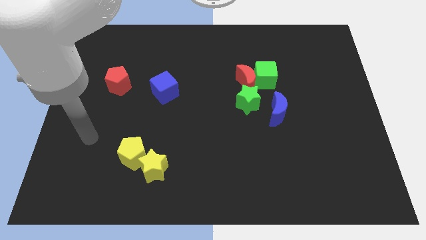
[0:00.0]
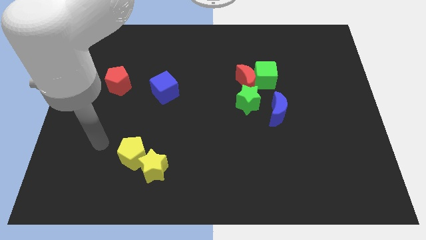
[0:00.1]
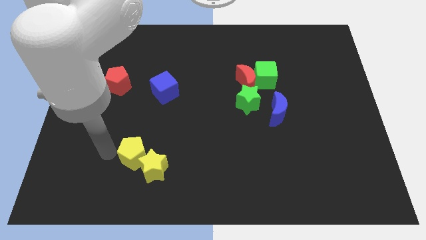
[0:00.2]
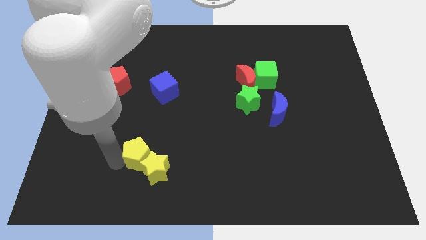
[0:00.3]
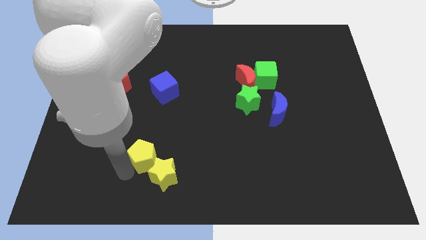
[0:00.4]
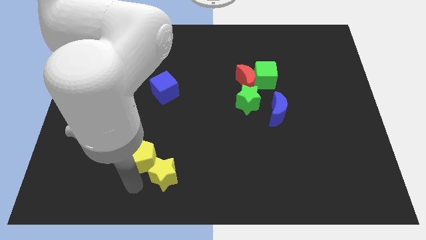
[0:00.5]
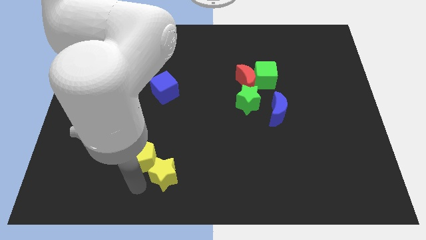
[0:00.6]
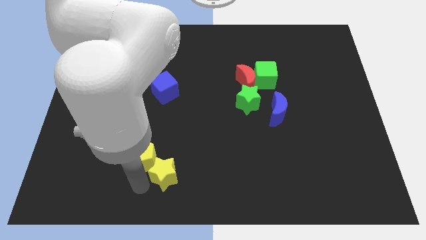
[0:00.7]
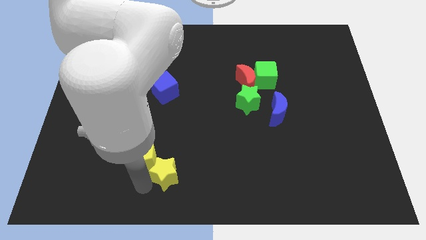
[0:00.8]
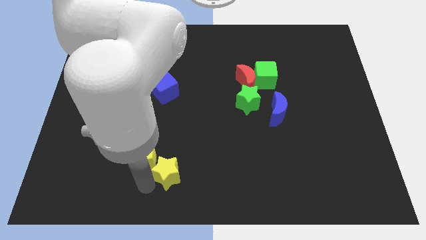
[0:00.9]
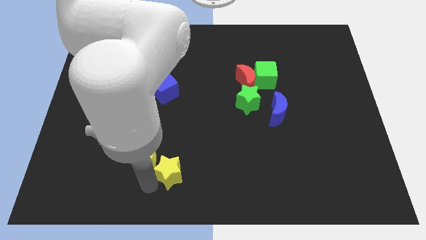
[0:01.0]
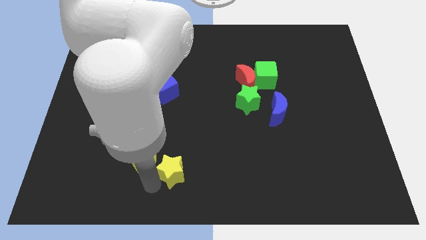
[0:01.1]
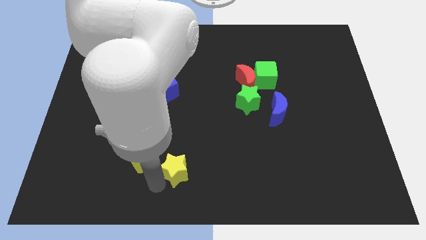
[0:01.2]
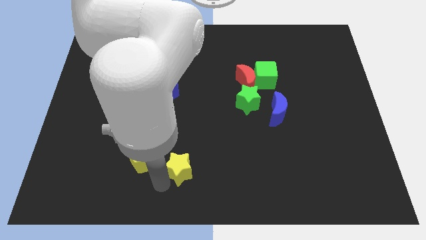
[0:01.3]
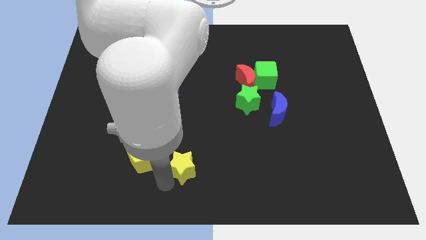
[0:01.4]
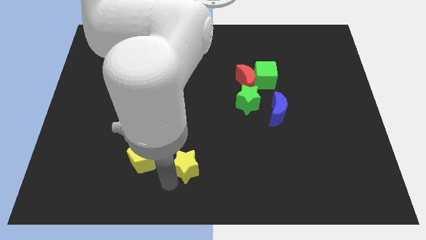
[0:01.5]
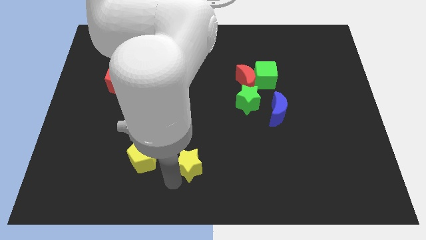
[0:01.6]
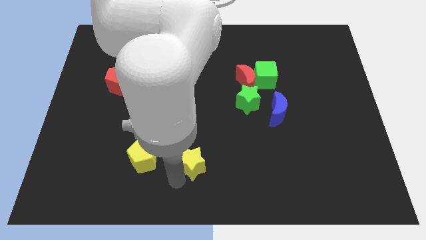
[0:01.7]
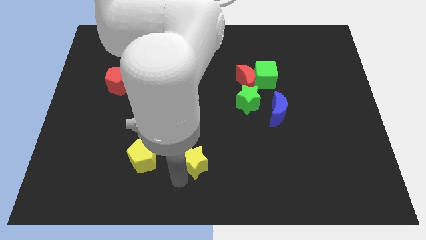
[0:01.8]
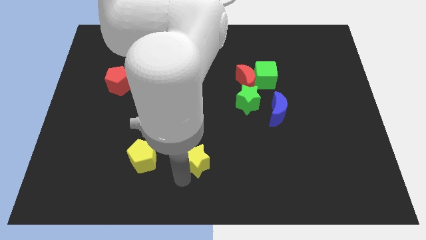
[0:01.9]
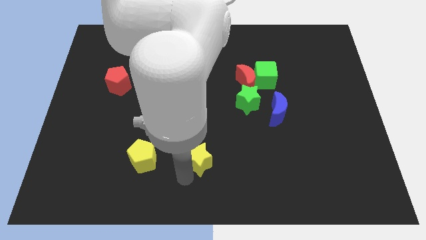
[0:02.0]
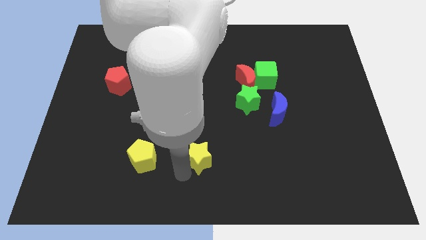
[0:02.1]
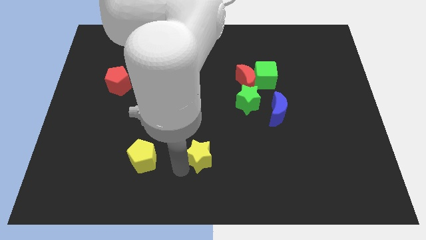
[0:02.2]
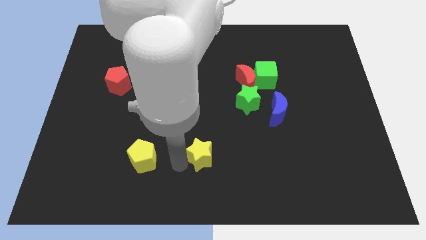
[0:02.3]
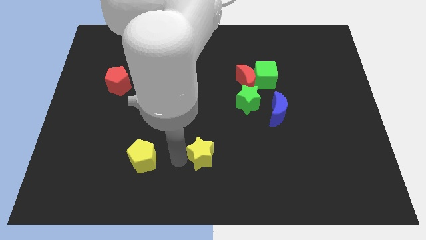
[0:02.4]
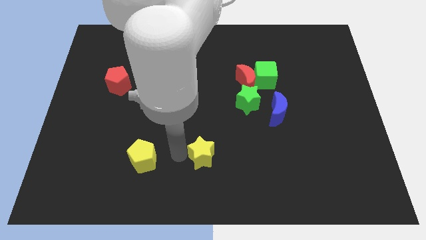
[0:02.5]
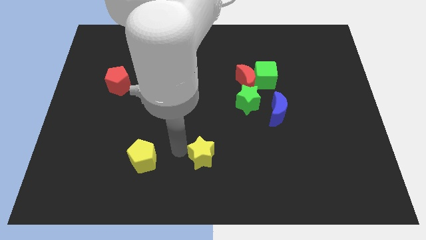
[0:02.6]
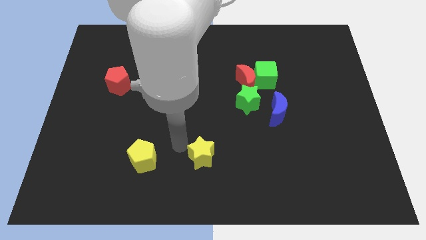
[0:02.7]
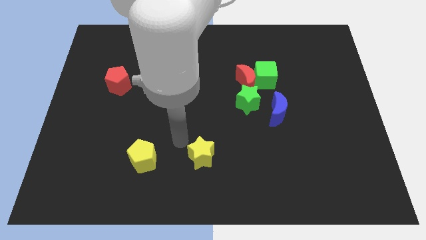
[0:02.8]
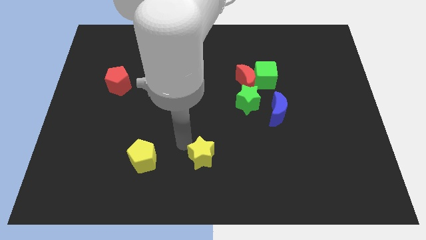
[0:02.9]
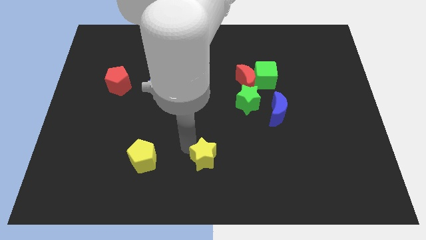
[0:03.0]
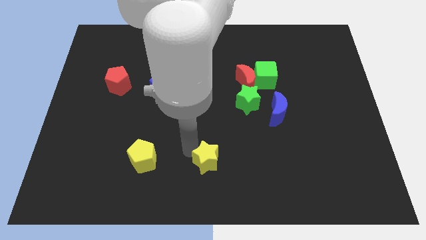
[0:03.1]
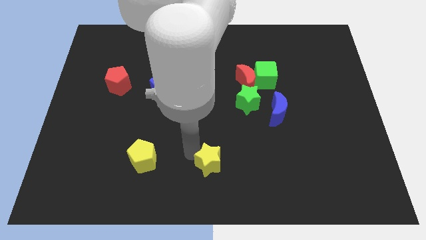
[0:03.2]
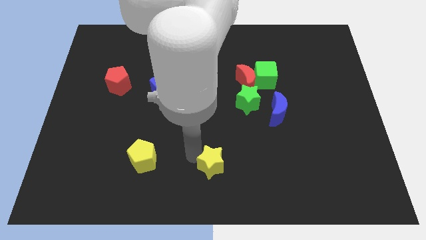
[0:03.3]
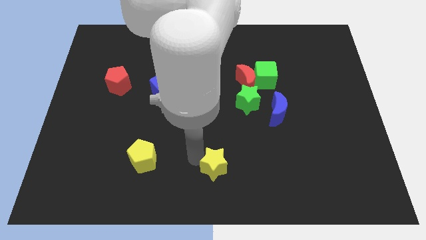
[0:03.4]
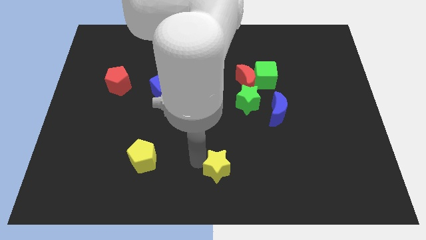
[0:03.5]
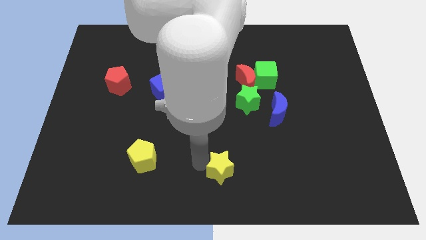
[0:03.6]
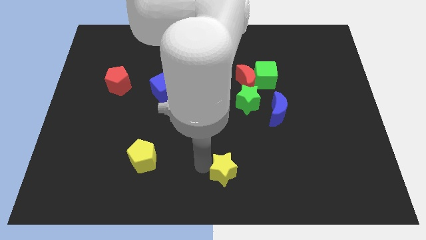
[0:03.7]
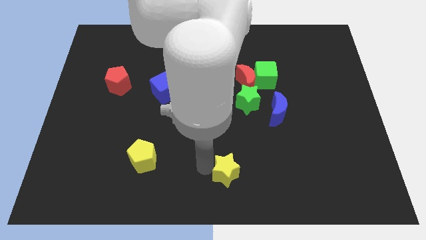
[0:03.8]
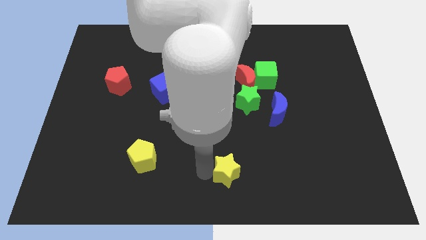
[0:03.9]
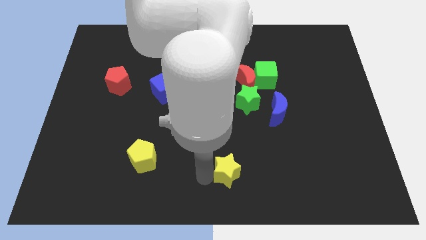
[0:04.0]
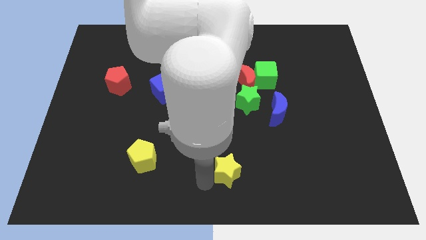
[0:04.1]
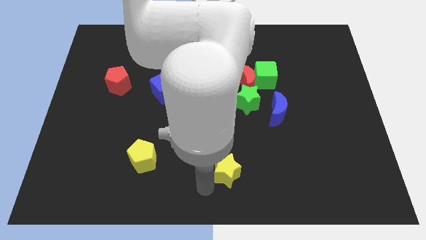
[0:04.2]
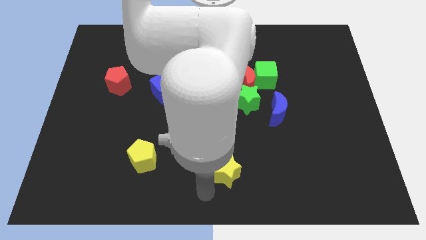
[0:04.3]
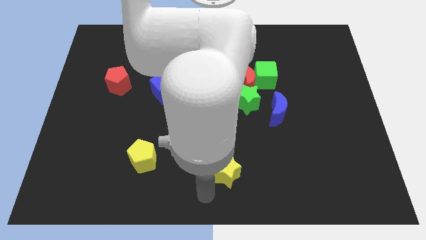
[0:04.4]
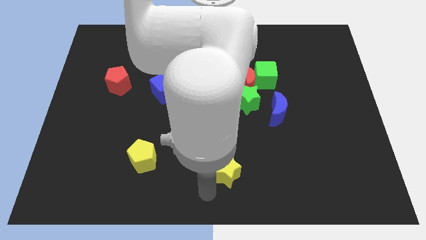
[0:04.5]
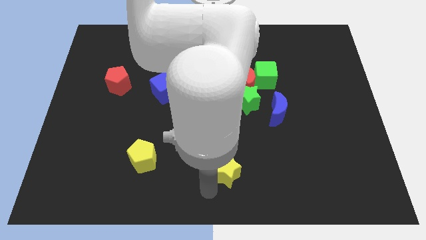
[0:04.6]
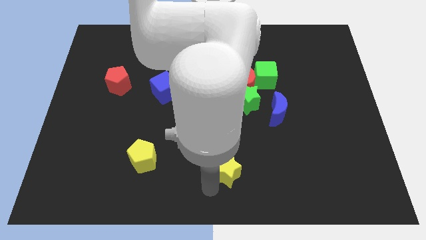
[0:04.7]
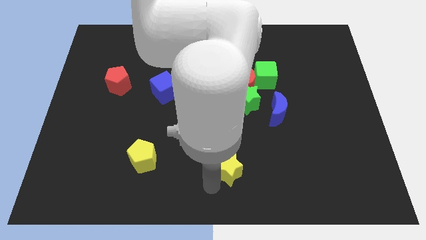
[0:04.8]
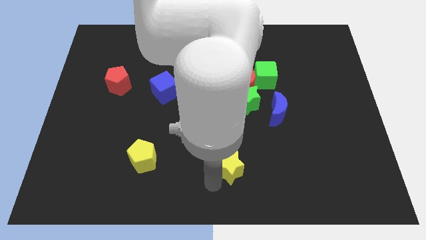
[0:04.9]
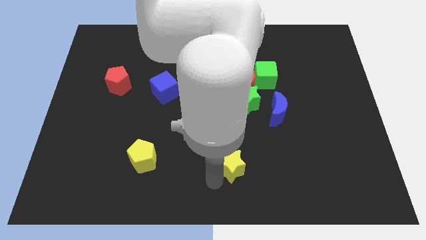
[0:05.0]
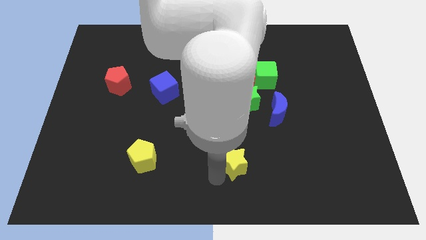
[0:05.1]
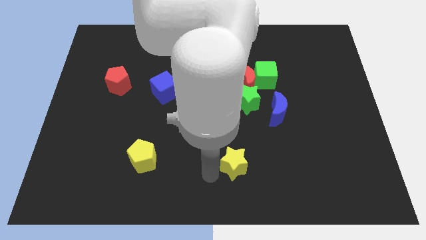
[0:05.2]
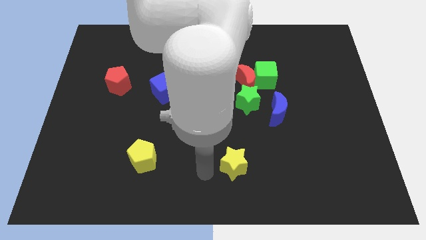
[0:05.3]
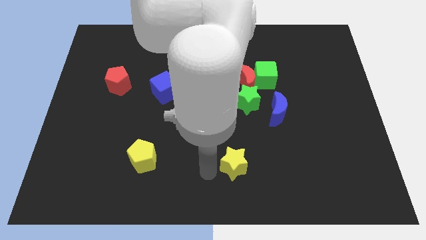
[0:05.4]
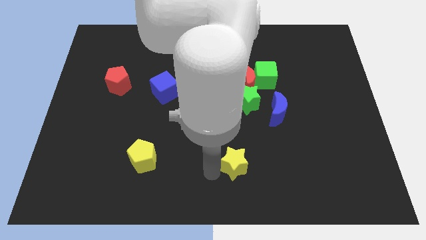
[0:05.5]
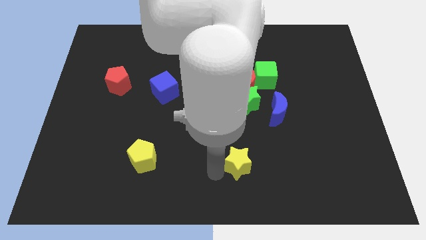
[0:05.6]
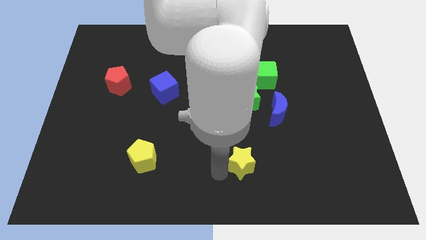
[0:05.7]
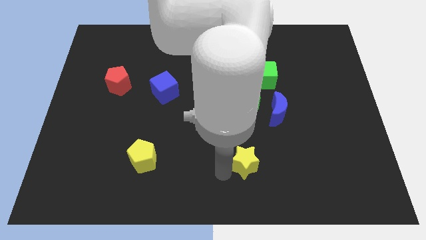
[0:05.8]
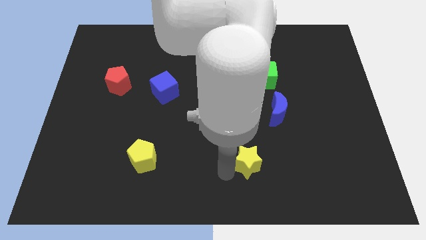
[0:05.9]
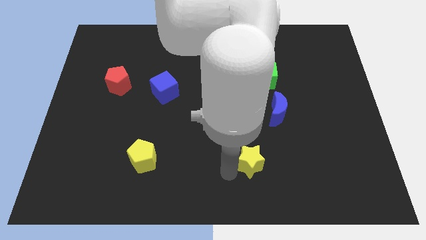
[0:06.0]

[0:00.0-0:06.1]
slide the yellow star right

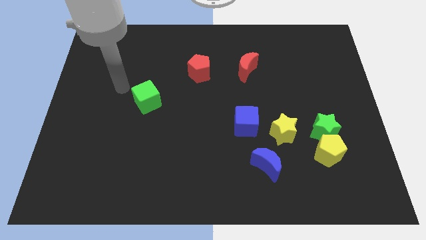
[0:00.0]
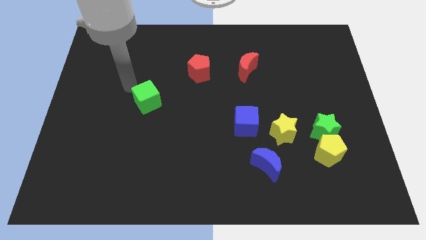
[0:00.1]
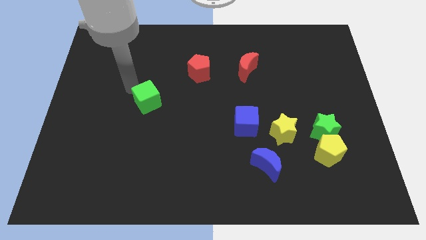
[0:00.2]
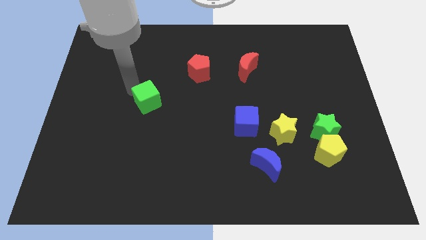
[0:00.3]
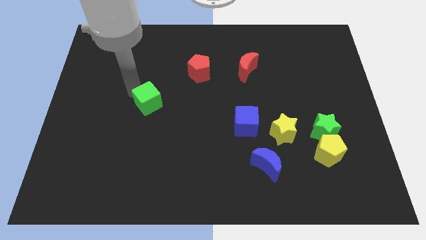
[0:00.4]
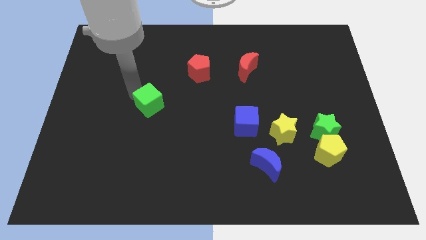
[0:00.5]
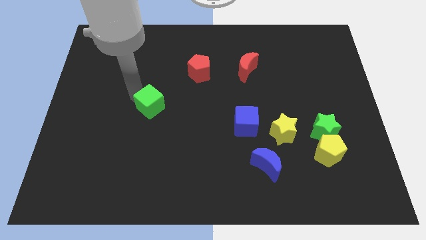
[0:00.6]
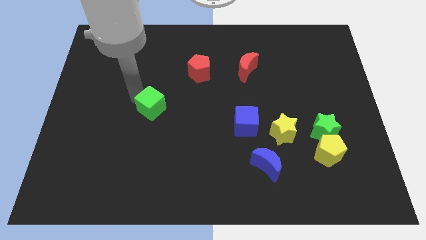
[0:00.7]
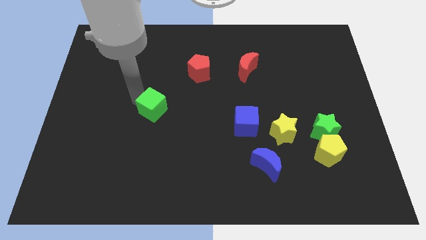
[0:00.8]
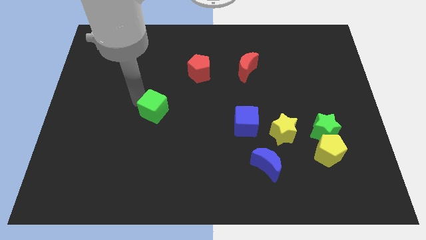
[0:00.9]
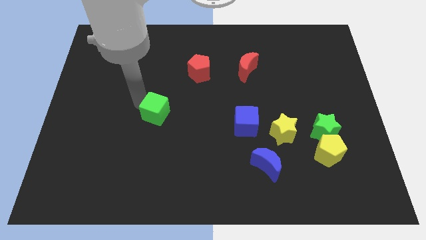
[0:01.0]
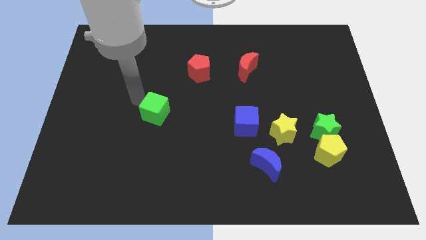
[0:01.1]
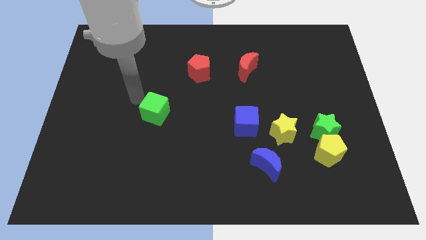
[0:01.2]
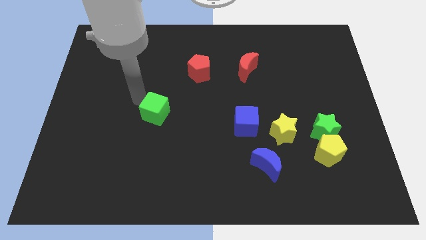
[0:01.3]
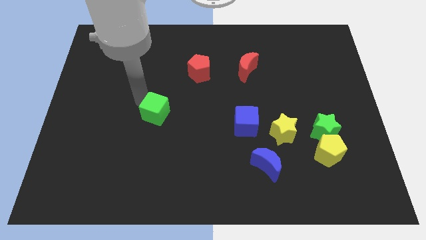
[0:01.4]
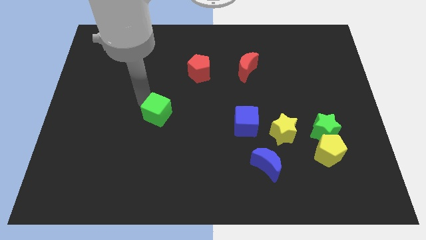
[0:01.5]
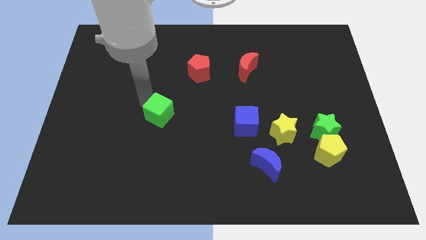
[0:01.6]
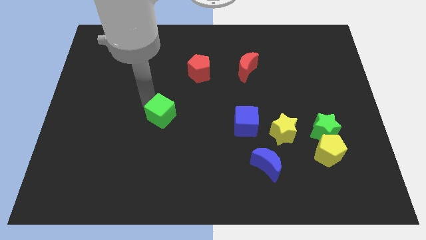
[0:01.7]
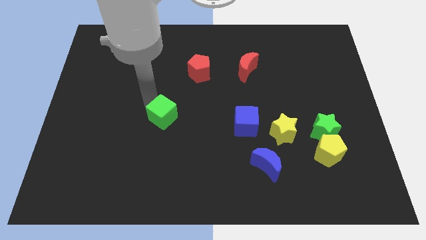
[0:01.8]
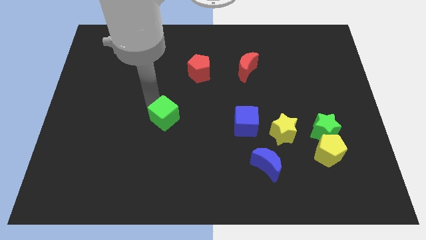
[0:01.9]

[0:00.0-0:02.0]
push the green cube somewhat diagonally down and right

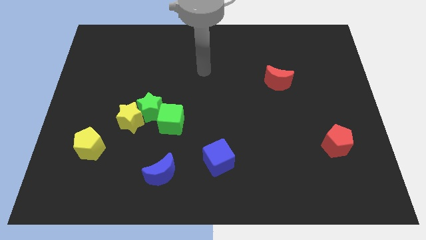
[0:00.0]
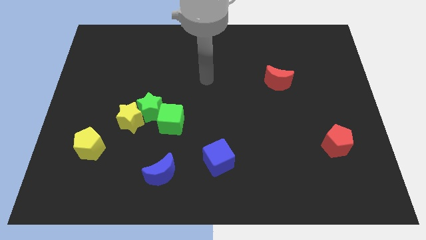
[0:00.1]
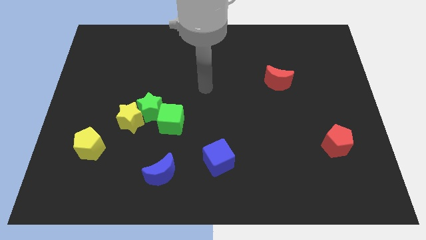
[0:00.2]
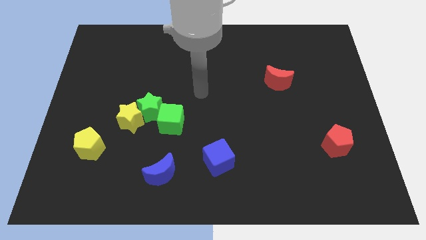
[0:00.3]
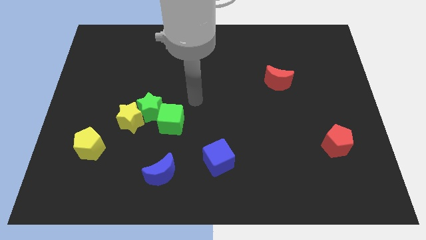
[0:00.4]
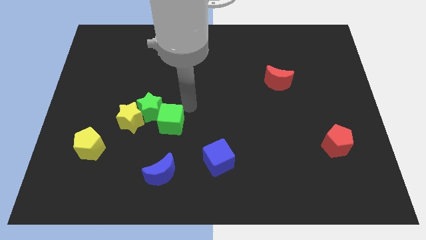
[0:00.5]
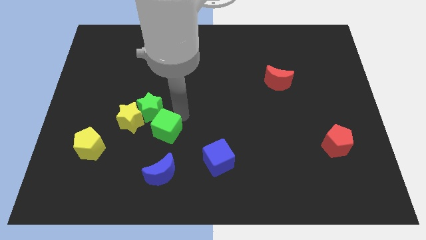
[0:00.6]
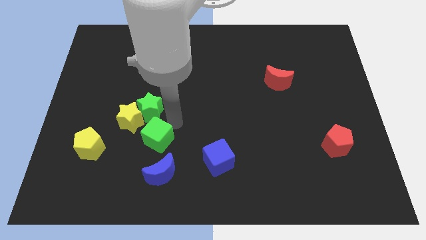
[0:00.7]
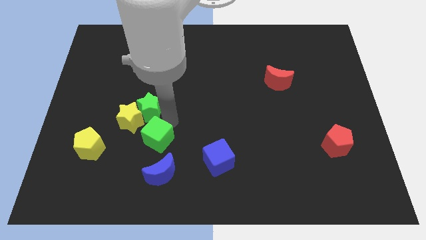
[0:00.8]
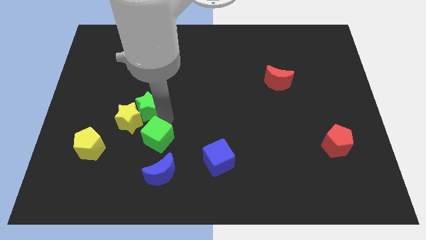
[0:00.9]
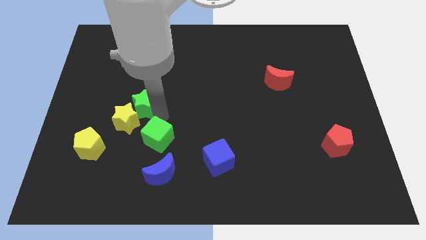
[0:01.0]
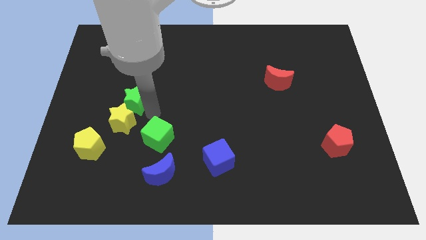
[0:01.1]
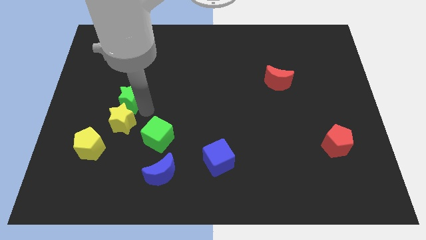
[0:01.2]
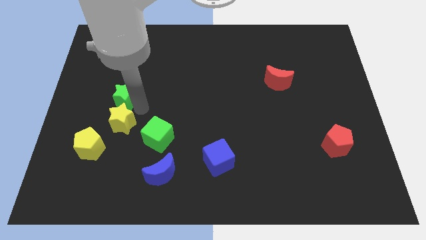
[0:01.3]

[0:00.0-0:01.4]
push the green star diagonally upwards and left slightly
